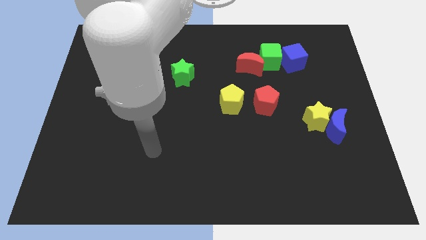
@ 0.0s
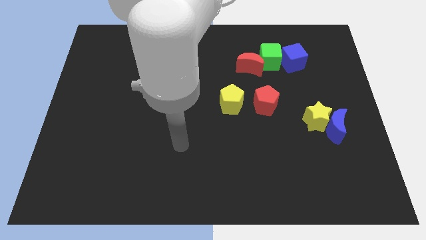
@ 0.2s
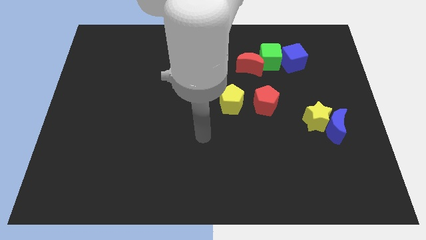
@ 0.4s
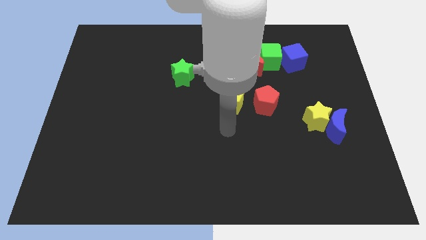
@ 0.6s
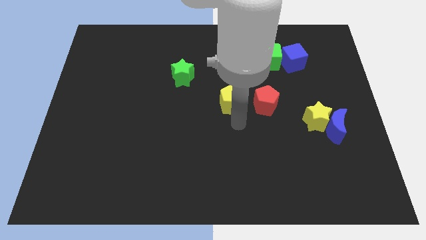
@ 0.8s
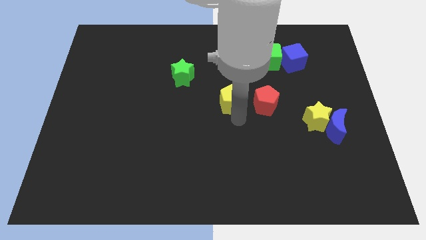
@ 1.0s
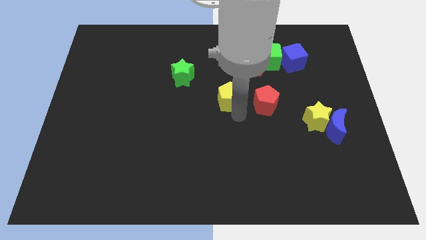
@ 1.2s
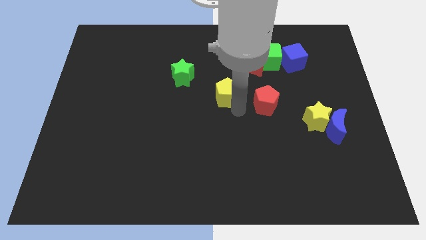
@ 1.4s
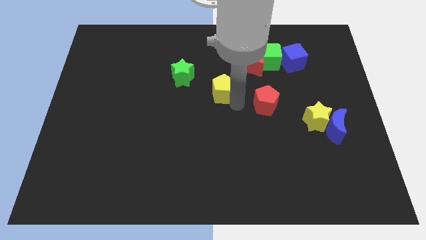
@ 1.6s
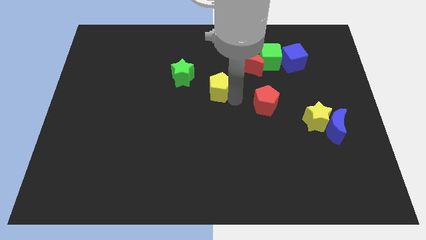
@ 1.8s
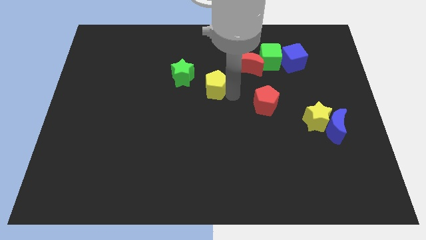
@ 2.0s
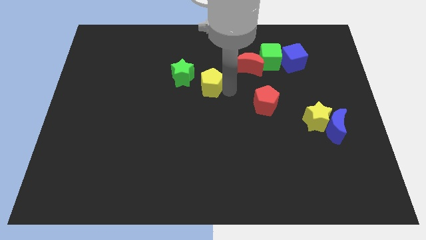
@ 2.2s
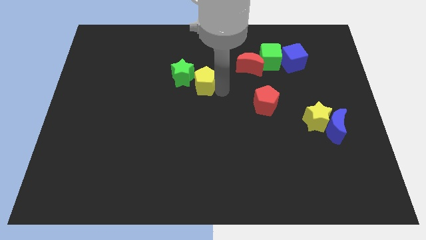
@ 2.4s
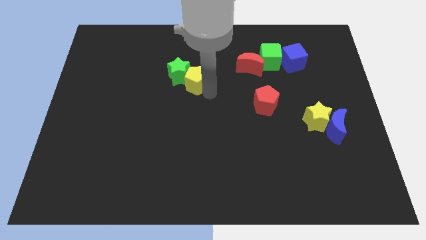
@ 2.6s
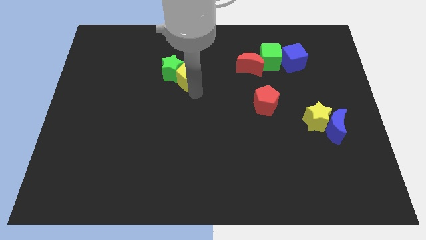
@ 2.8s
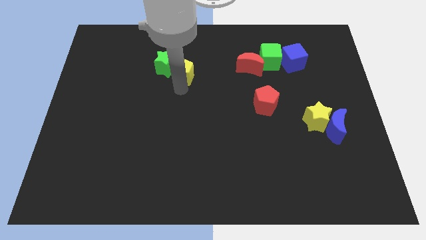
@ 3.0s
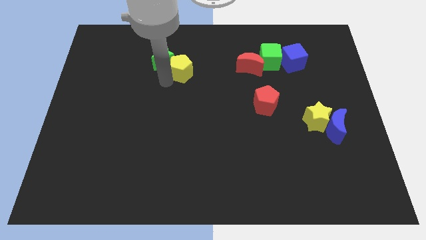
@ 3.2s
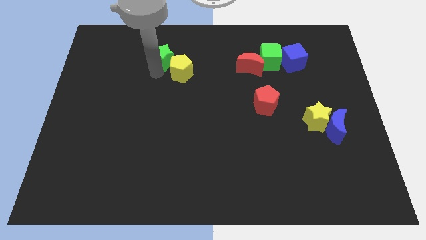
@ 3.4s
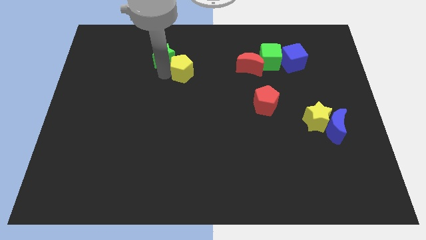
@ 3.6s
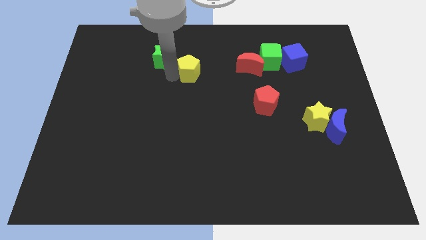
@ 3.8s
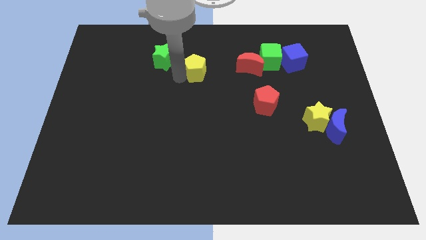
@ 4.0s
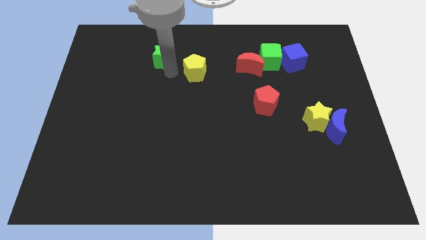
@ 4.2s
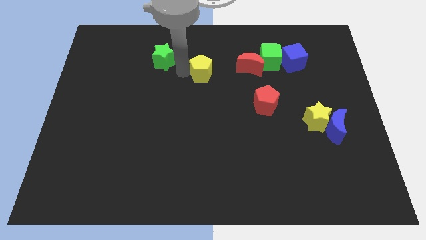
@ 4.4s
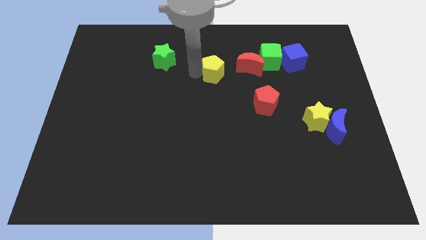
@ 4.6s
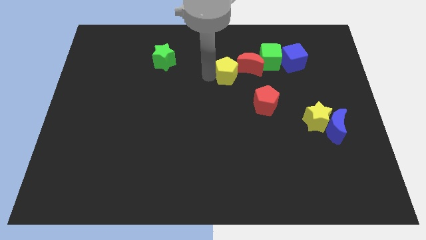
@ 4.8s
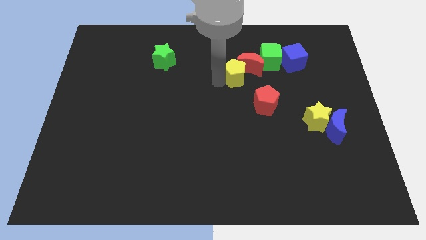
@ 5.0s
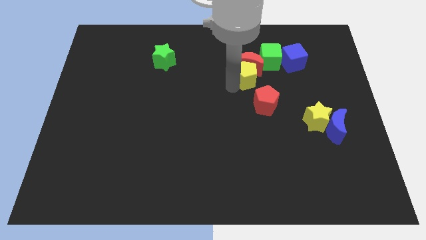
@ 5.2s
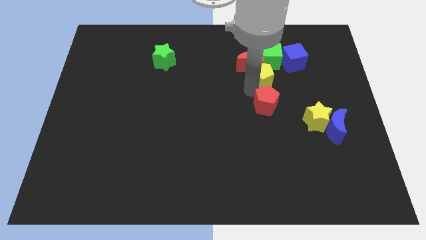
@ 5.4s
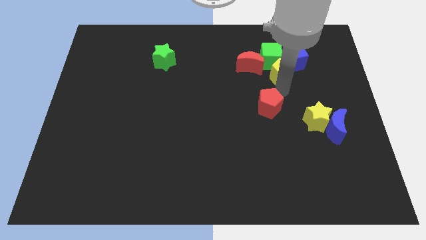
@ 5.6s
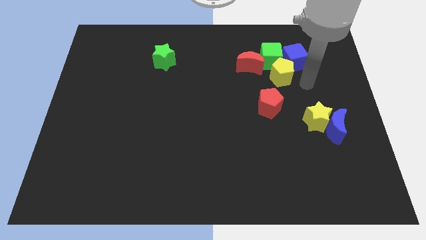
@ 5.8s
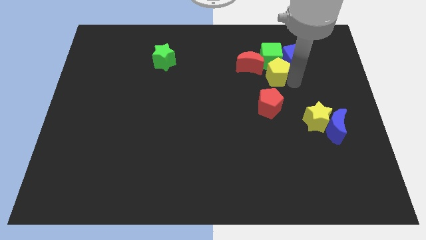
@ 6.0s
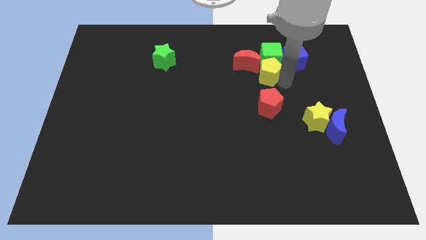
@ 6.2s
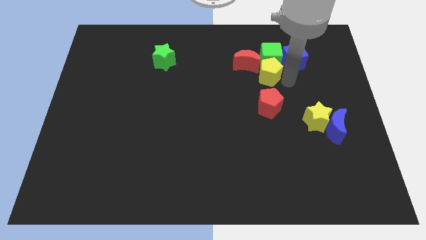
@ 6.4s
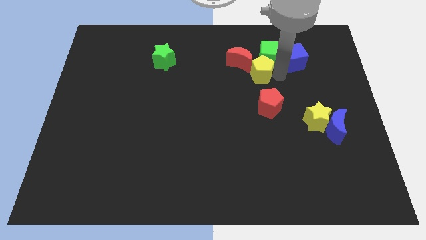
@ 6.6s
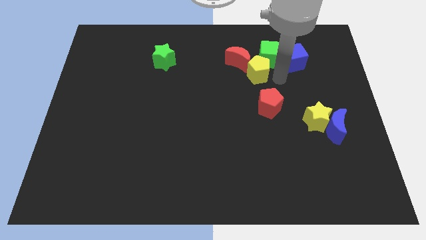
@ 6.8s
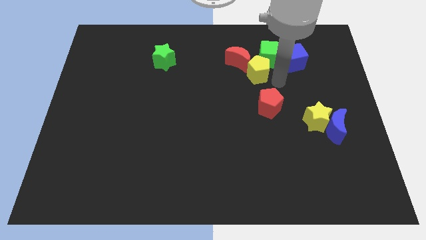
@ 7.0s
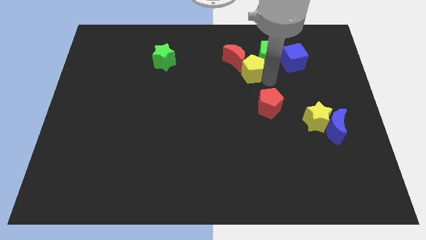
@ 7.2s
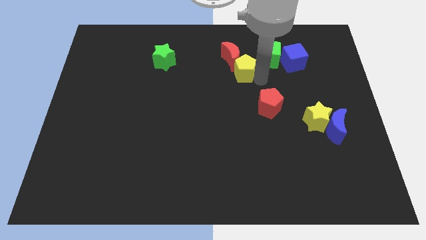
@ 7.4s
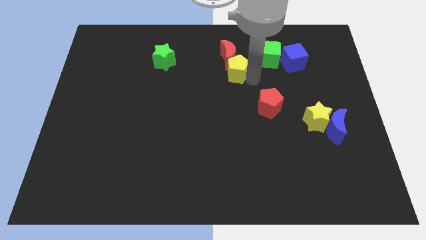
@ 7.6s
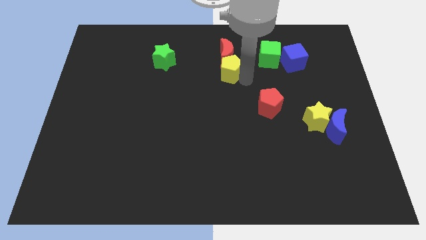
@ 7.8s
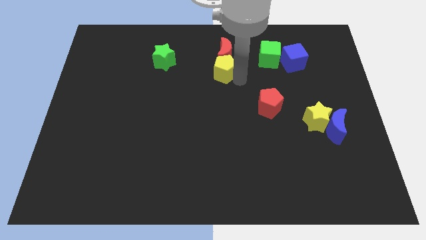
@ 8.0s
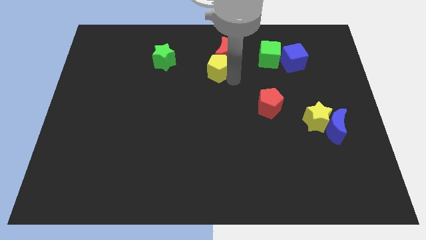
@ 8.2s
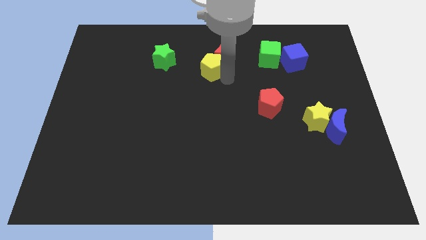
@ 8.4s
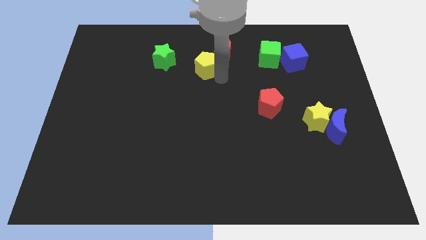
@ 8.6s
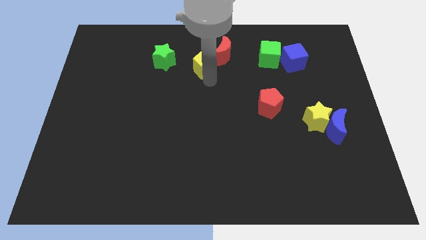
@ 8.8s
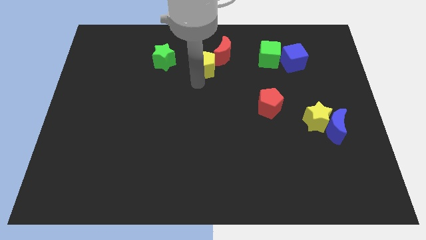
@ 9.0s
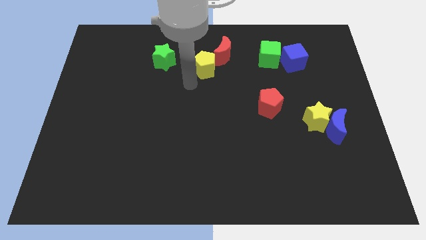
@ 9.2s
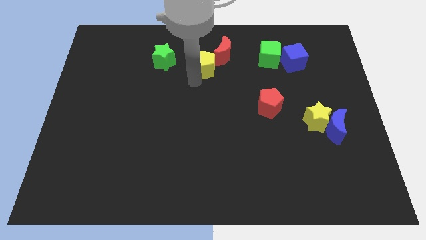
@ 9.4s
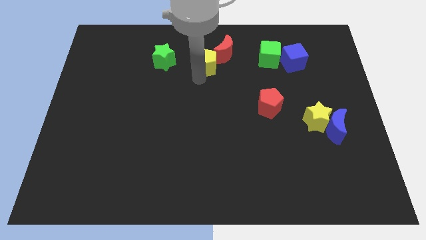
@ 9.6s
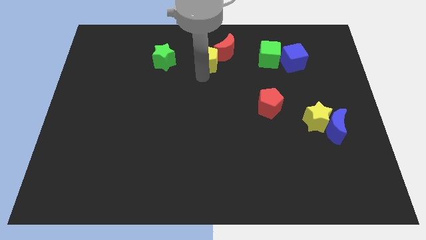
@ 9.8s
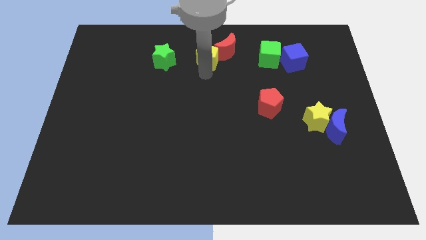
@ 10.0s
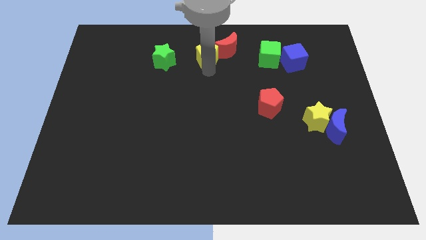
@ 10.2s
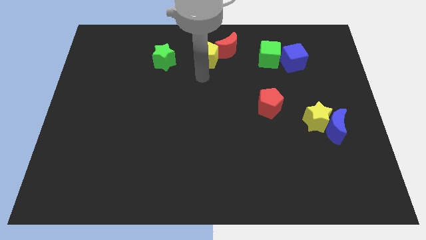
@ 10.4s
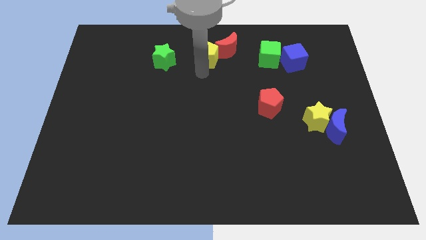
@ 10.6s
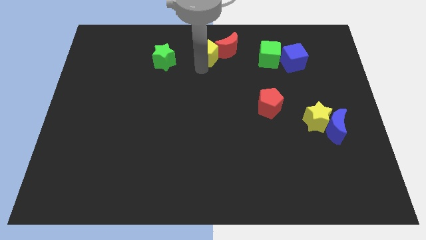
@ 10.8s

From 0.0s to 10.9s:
move the yellow pentagon to the top

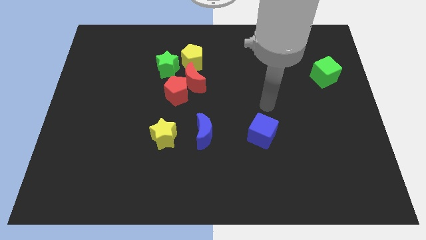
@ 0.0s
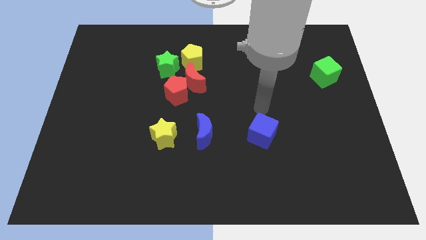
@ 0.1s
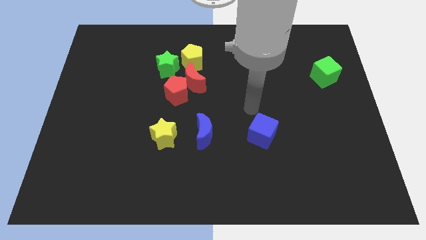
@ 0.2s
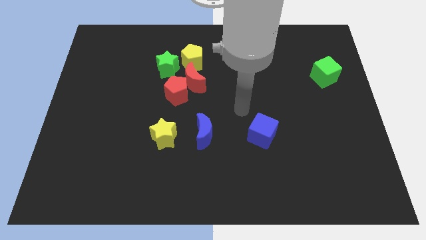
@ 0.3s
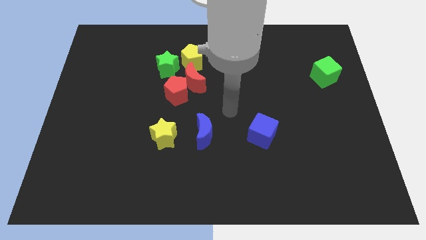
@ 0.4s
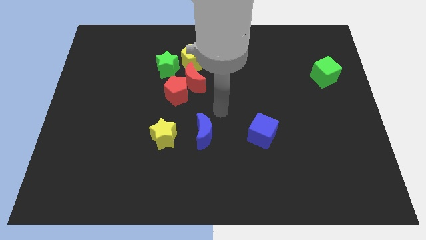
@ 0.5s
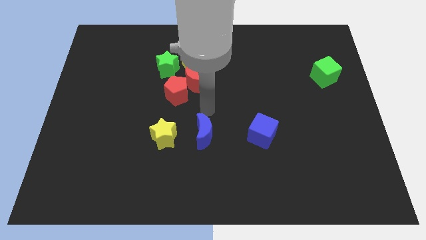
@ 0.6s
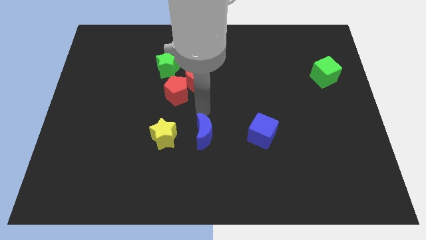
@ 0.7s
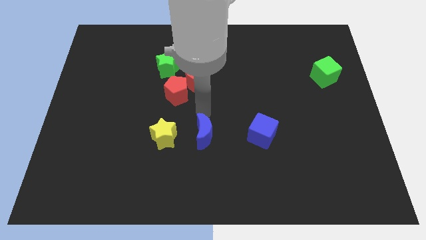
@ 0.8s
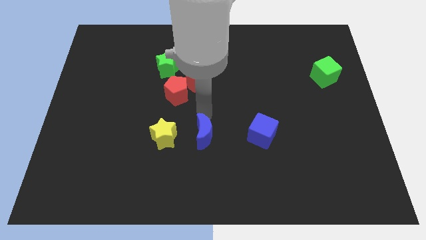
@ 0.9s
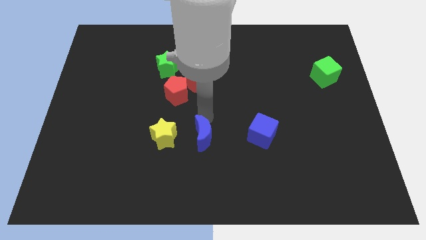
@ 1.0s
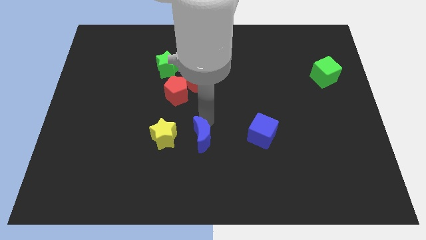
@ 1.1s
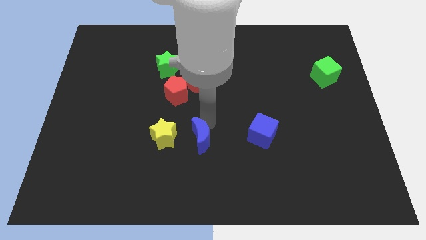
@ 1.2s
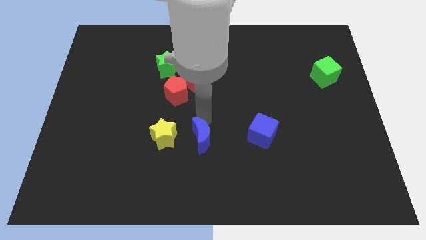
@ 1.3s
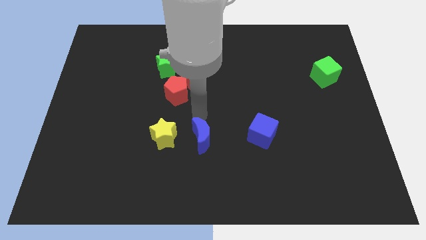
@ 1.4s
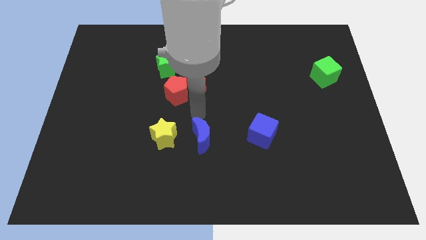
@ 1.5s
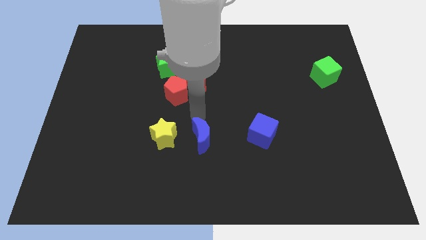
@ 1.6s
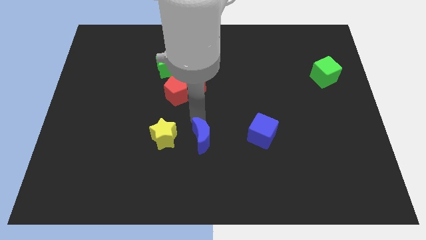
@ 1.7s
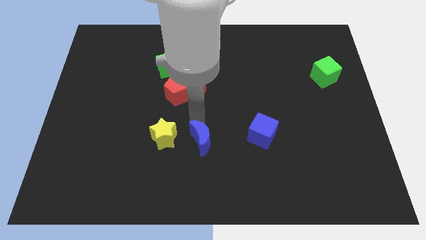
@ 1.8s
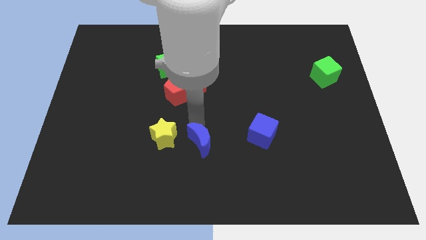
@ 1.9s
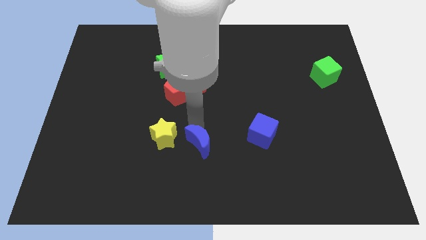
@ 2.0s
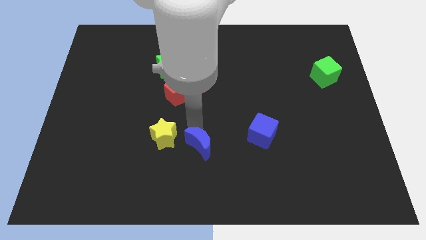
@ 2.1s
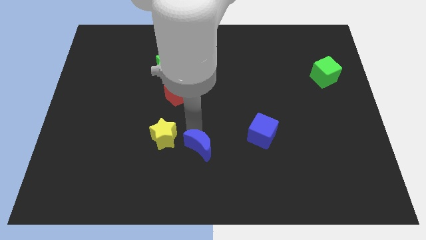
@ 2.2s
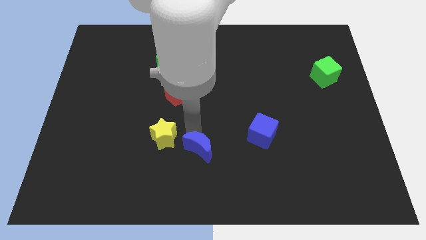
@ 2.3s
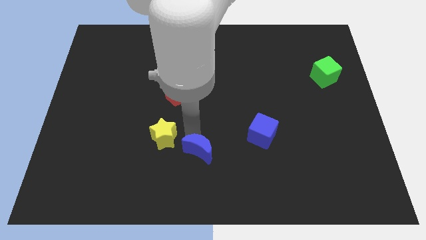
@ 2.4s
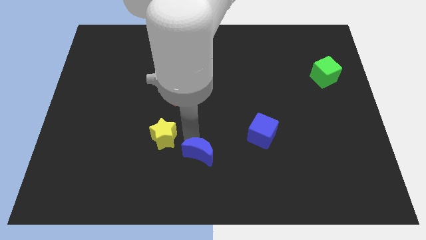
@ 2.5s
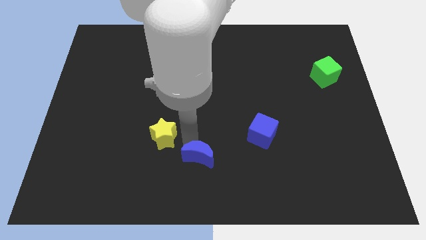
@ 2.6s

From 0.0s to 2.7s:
put the blue moon to the bottom side
